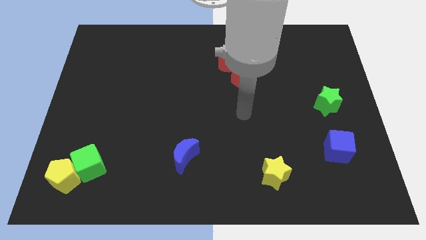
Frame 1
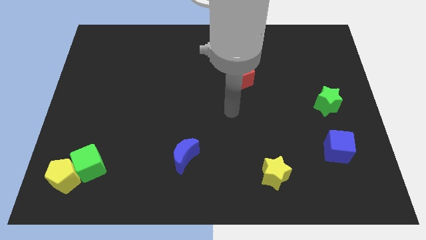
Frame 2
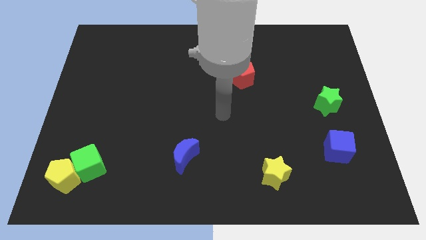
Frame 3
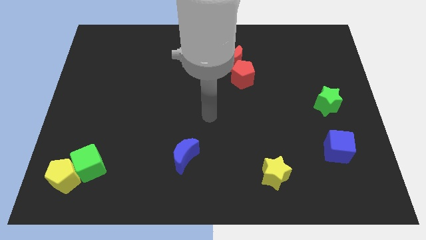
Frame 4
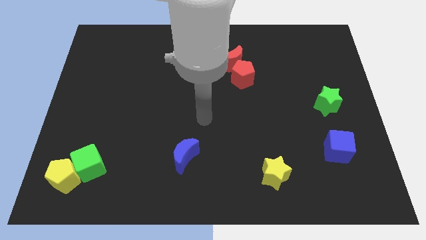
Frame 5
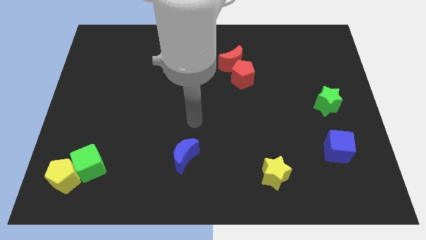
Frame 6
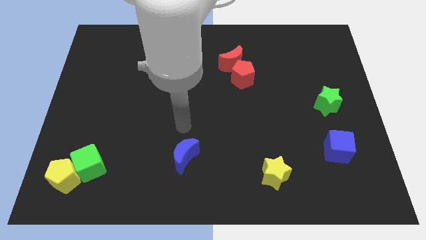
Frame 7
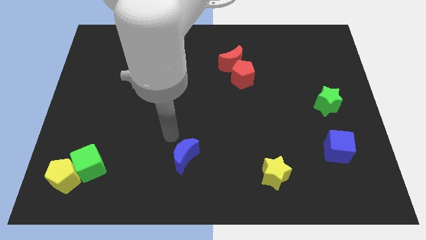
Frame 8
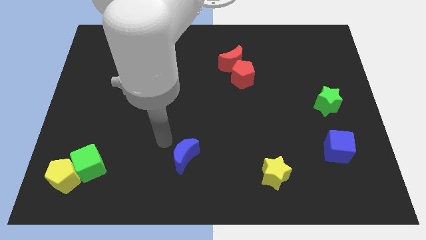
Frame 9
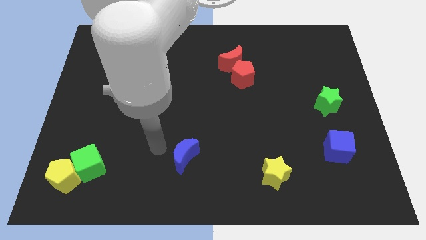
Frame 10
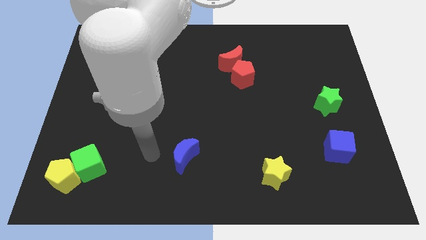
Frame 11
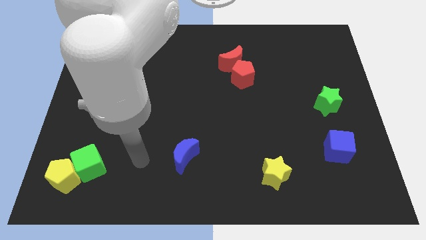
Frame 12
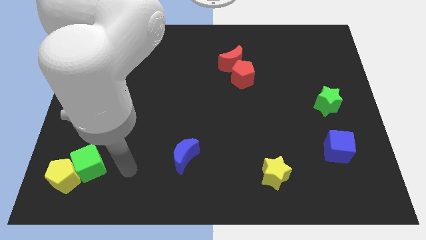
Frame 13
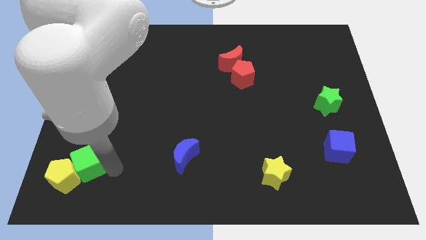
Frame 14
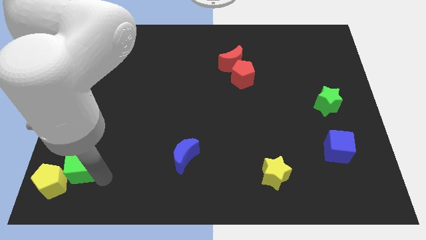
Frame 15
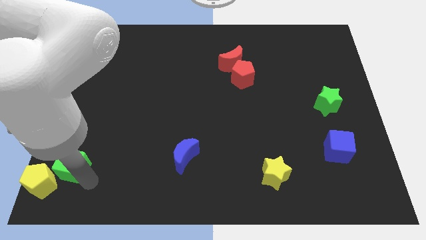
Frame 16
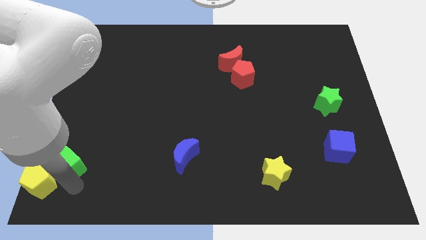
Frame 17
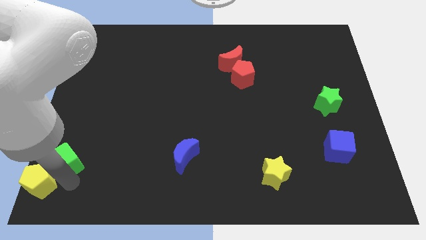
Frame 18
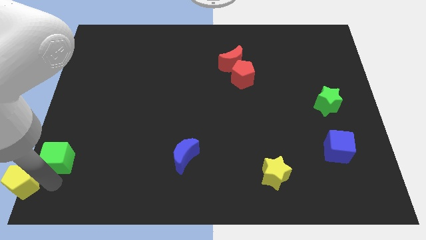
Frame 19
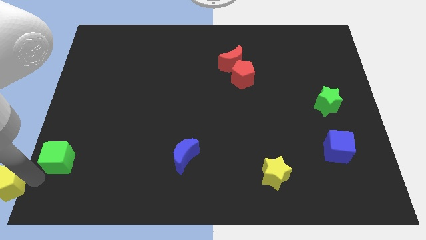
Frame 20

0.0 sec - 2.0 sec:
pull the green cube apart from the yellow pentagon

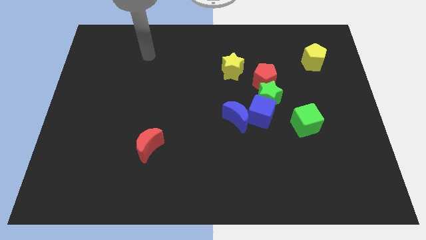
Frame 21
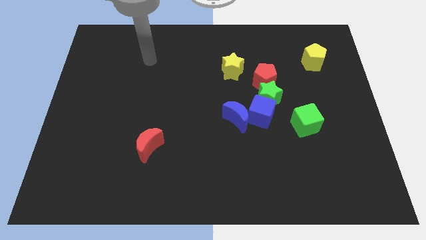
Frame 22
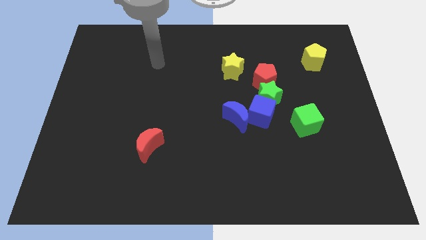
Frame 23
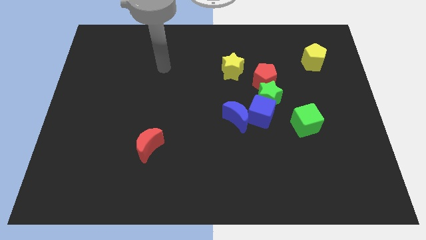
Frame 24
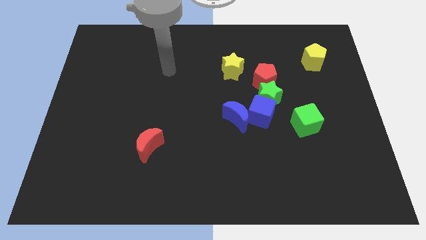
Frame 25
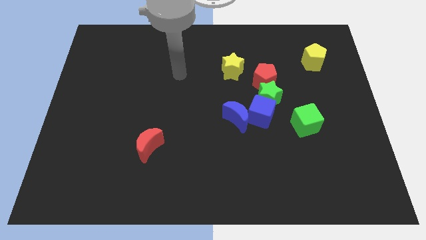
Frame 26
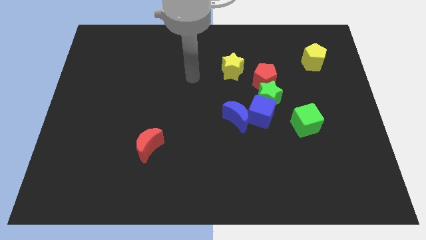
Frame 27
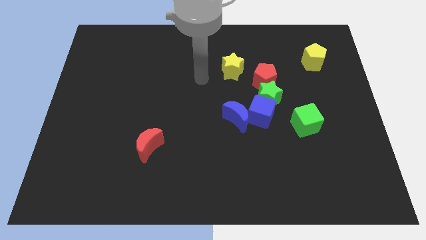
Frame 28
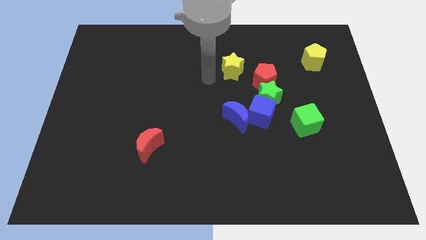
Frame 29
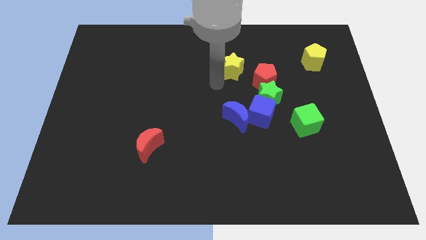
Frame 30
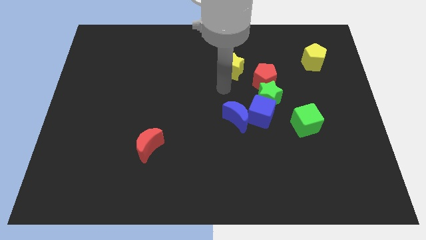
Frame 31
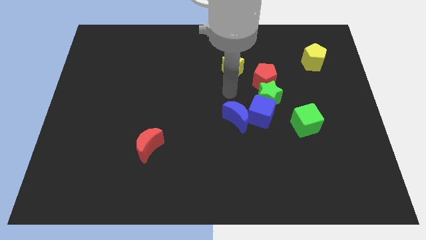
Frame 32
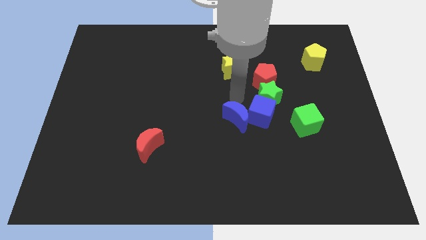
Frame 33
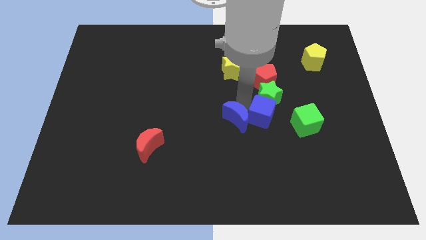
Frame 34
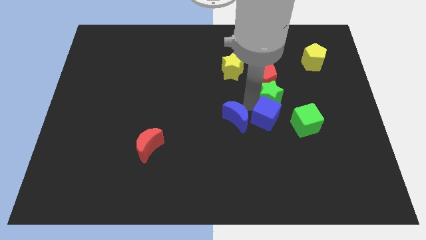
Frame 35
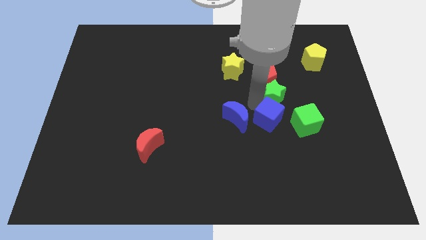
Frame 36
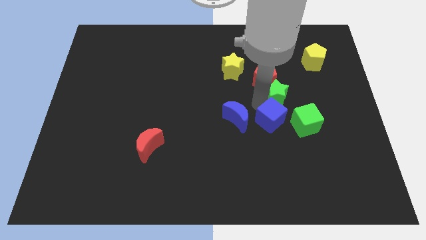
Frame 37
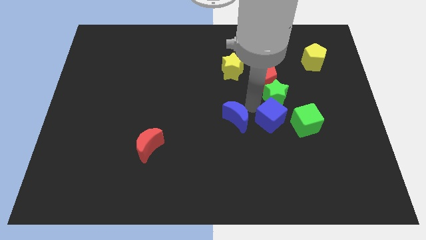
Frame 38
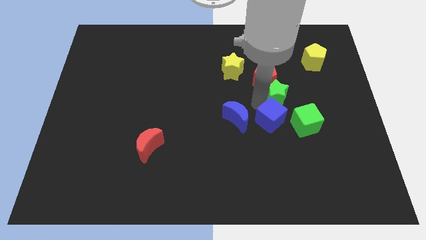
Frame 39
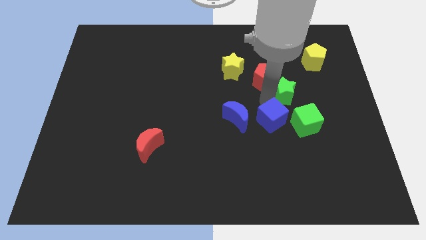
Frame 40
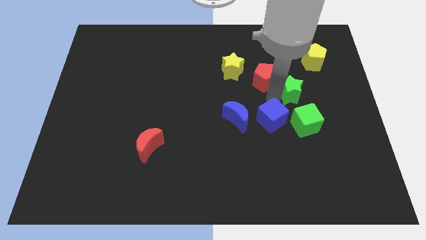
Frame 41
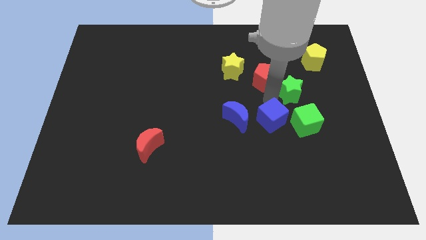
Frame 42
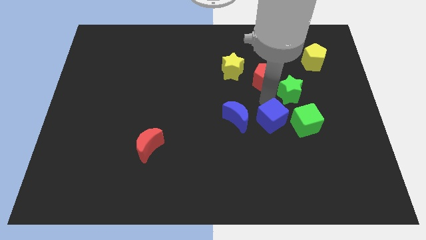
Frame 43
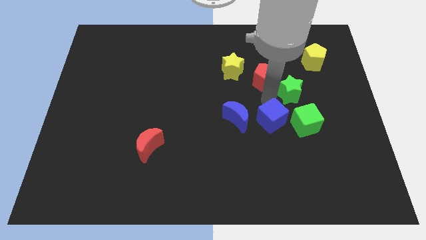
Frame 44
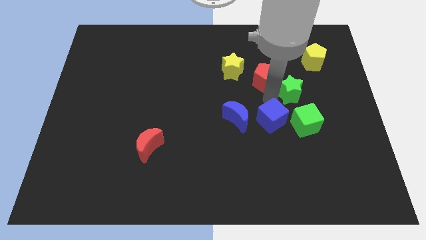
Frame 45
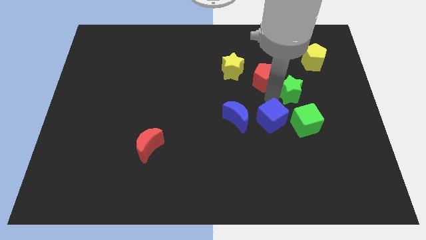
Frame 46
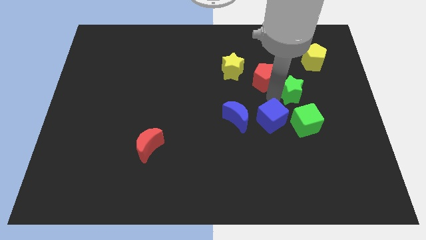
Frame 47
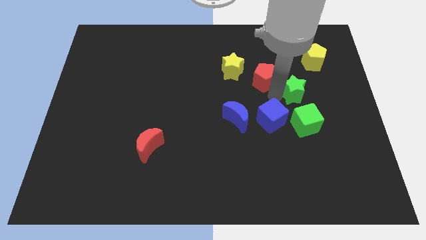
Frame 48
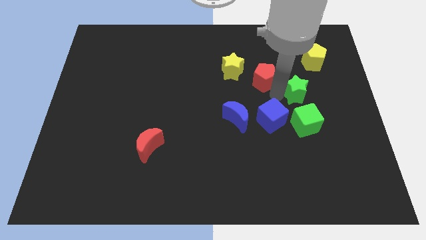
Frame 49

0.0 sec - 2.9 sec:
pull the green star apart from the group of blocks

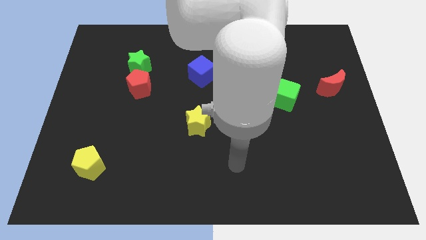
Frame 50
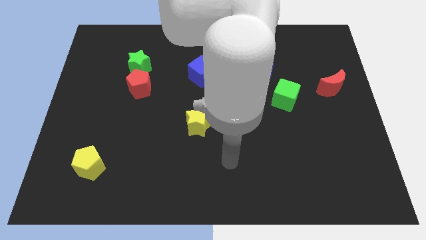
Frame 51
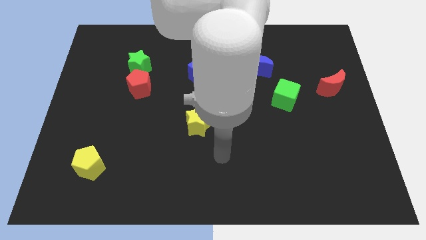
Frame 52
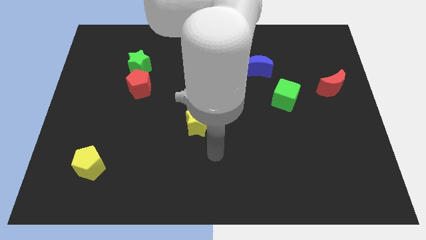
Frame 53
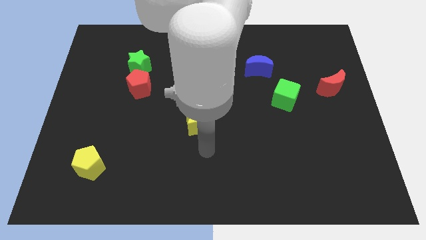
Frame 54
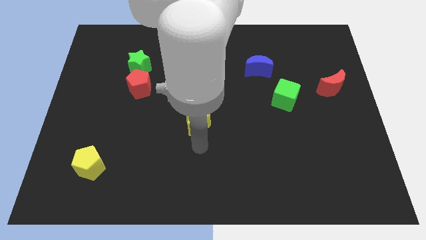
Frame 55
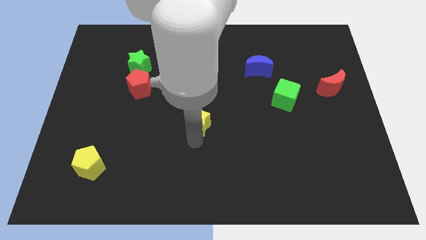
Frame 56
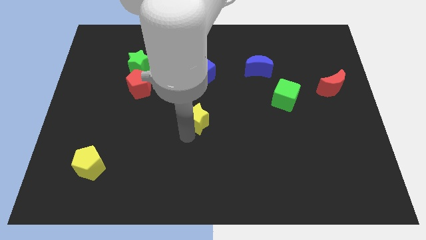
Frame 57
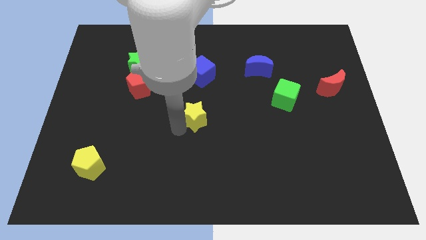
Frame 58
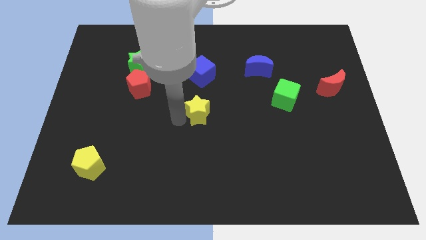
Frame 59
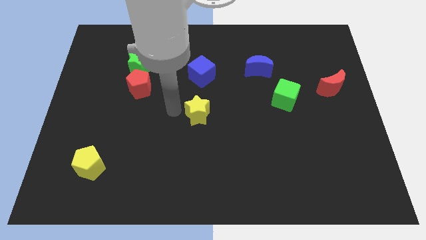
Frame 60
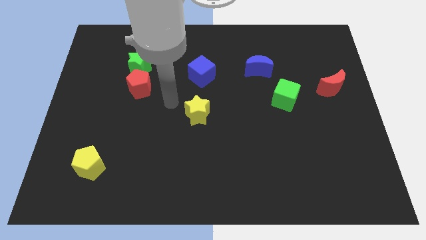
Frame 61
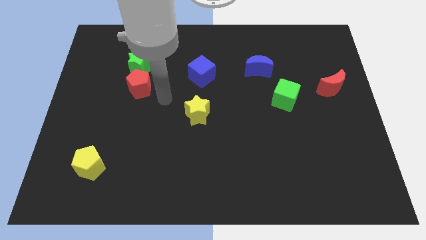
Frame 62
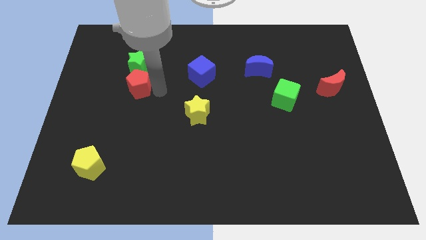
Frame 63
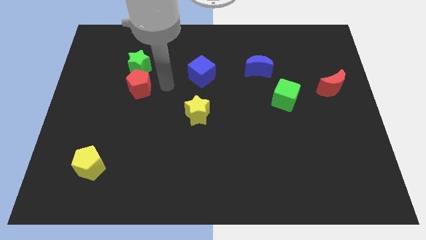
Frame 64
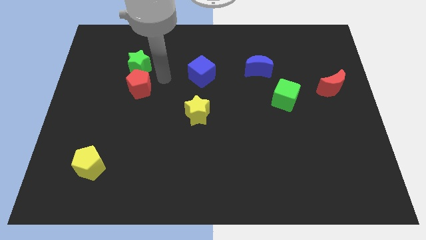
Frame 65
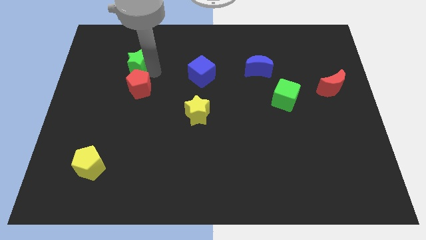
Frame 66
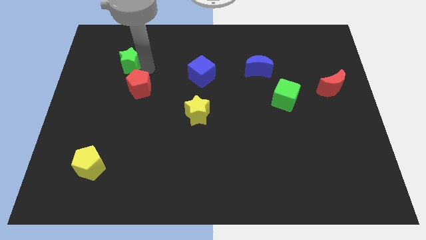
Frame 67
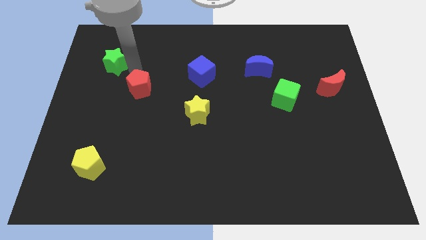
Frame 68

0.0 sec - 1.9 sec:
separate the red pentagon from the green star

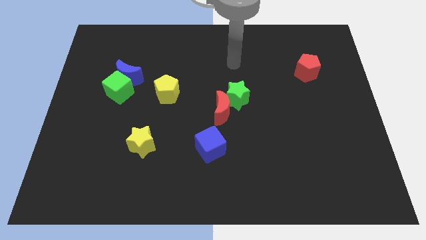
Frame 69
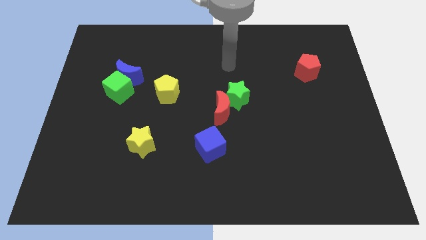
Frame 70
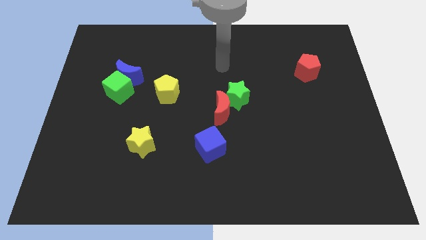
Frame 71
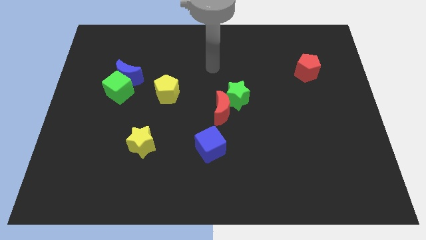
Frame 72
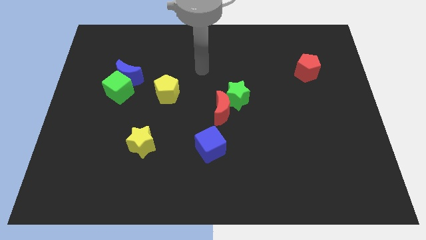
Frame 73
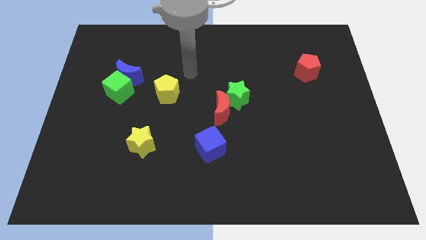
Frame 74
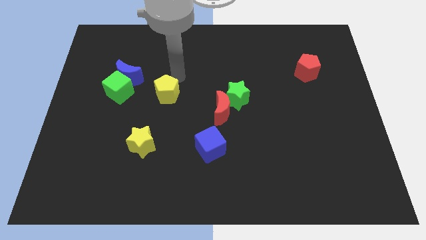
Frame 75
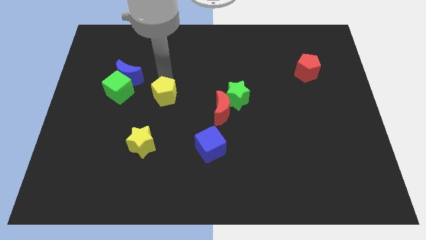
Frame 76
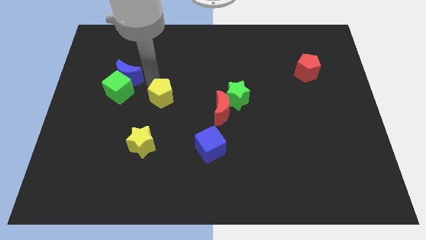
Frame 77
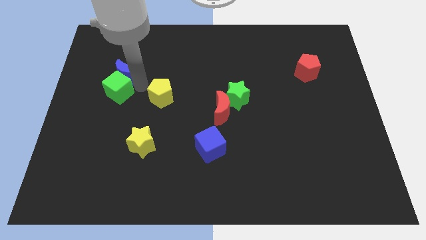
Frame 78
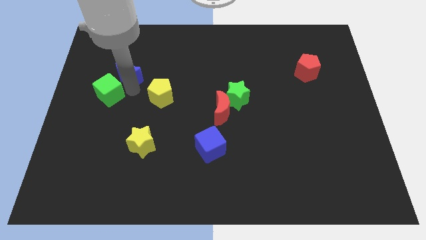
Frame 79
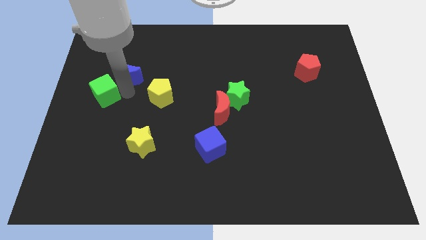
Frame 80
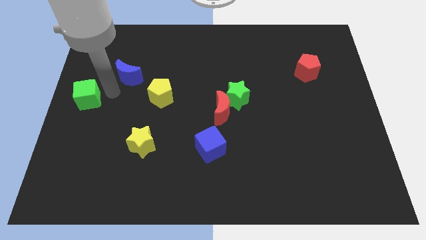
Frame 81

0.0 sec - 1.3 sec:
separate the blue moon from the green cube

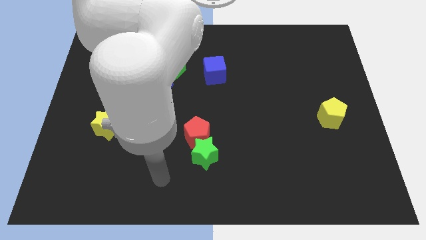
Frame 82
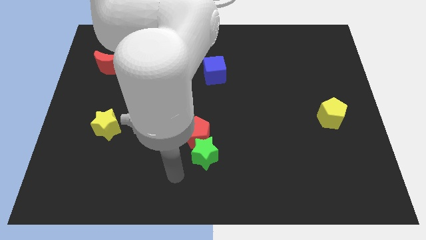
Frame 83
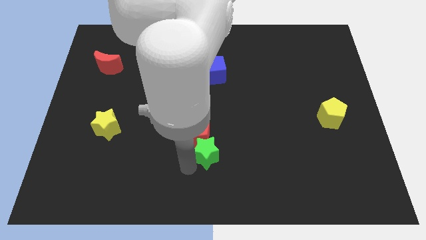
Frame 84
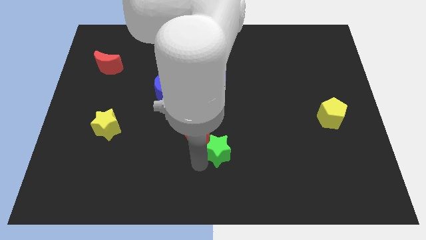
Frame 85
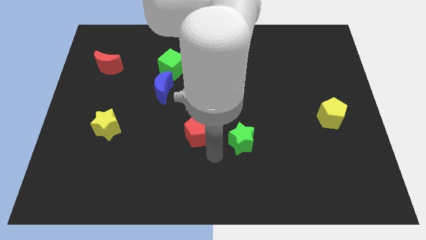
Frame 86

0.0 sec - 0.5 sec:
pull the red pentagon apart from the green star

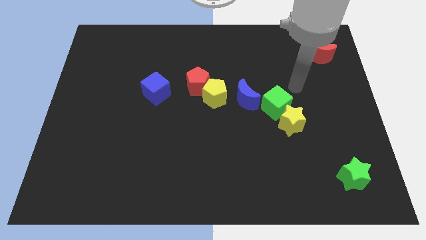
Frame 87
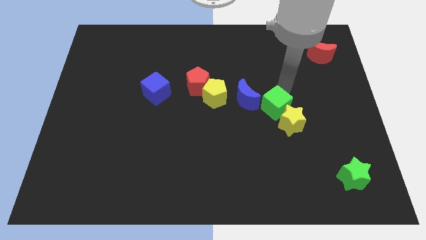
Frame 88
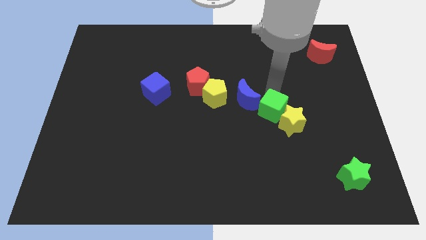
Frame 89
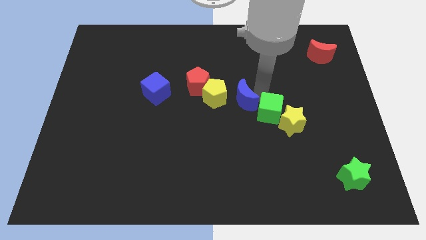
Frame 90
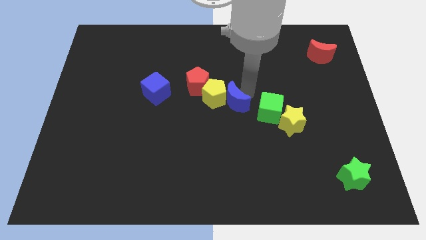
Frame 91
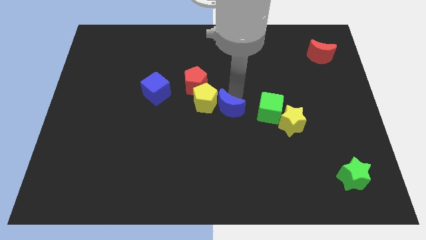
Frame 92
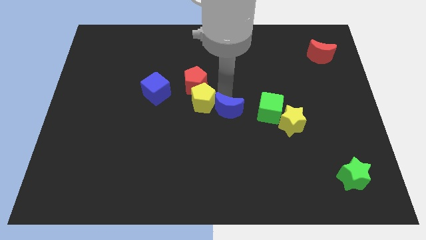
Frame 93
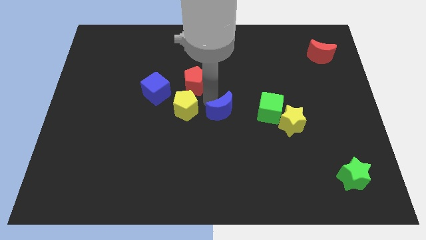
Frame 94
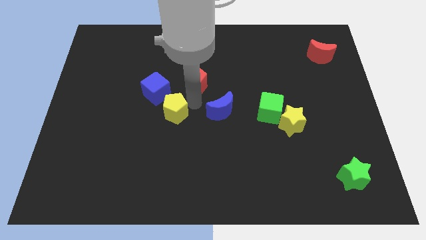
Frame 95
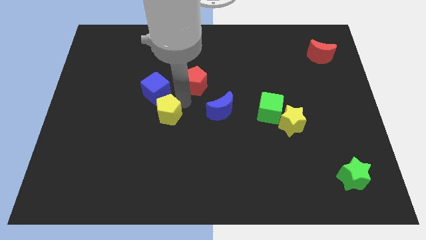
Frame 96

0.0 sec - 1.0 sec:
move the red pentagon away from the yellow pentagon
